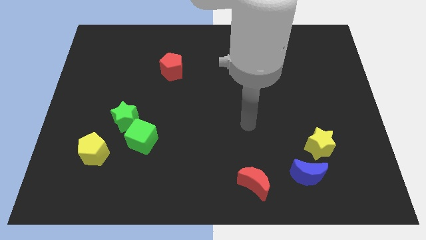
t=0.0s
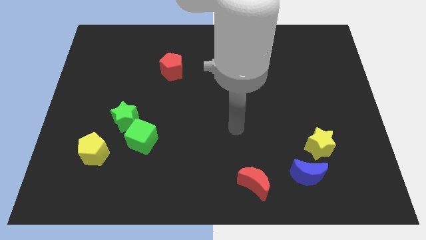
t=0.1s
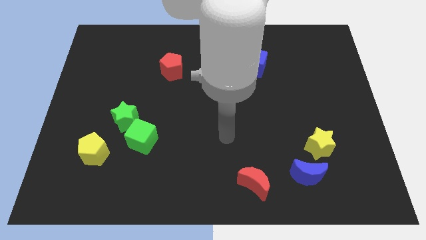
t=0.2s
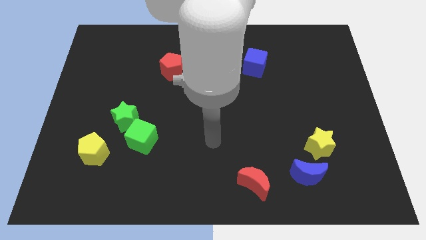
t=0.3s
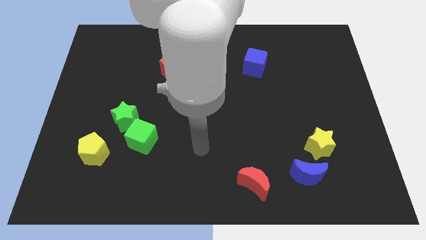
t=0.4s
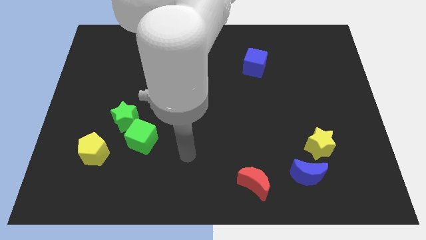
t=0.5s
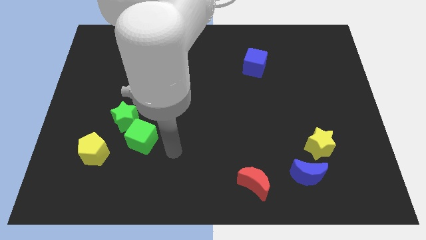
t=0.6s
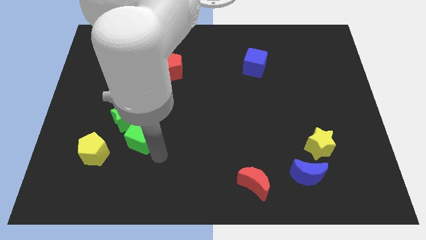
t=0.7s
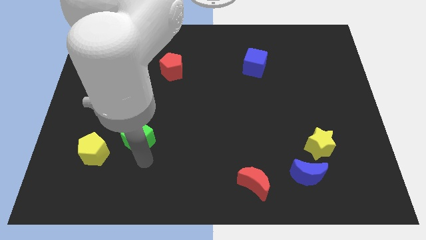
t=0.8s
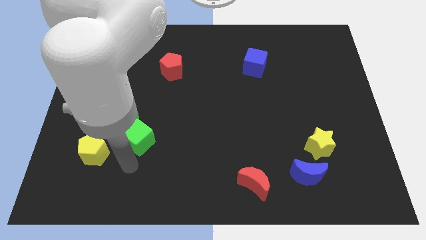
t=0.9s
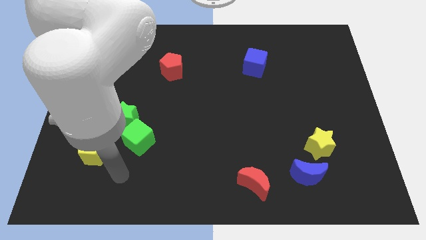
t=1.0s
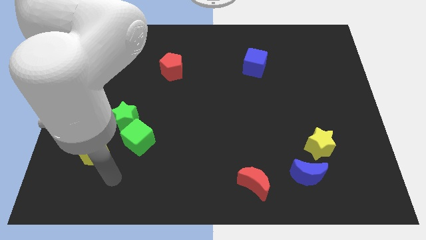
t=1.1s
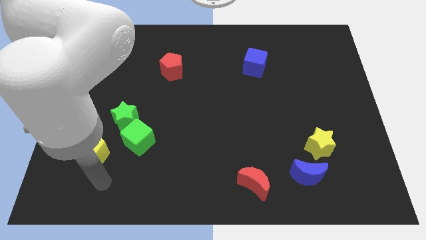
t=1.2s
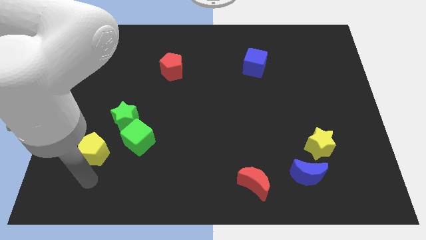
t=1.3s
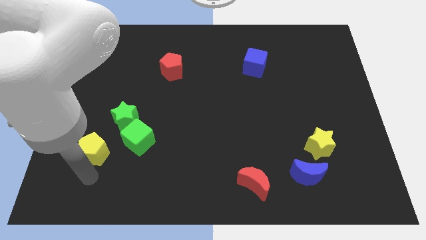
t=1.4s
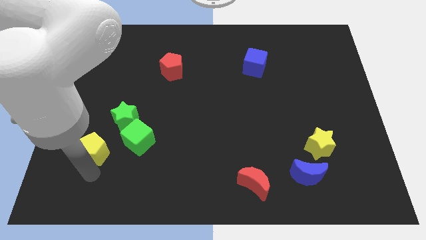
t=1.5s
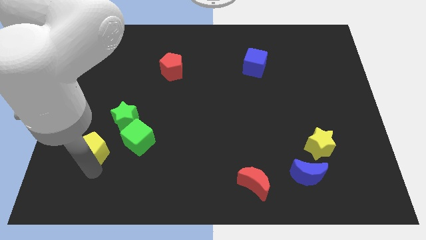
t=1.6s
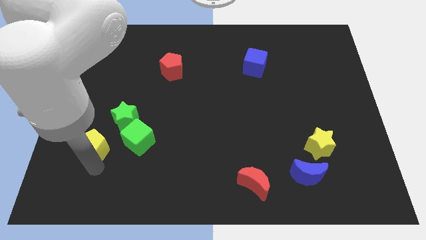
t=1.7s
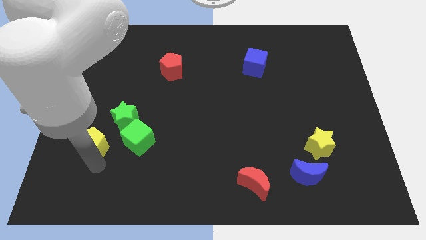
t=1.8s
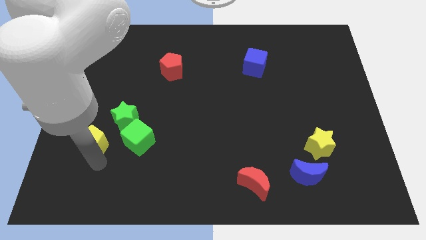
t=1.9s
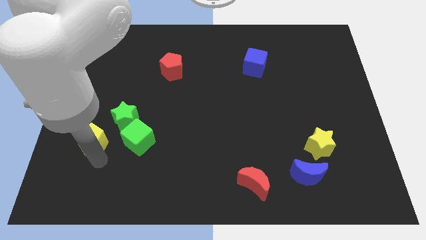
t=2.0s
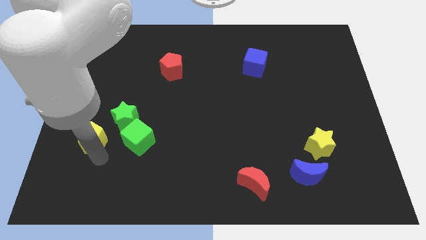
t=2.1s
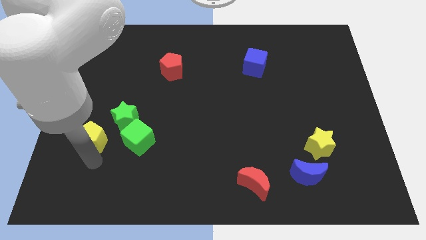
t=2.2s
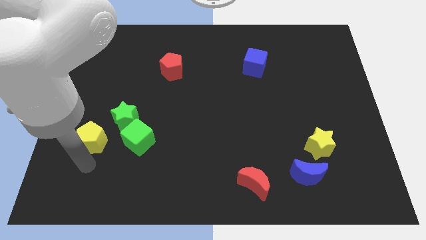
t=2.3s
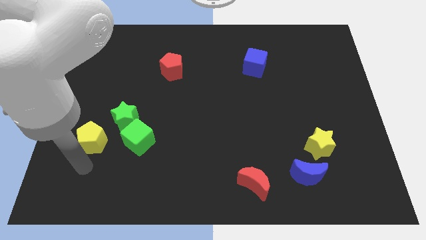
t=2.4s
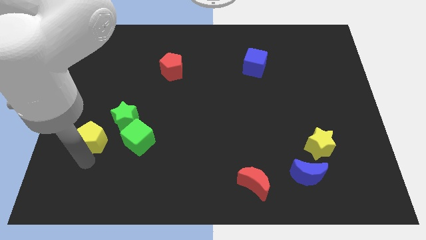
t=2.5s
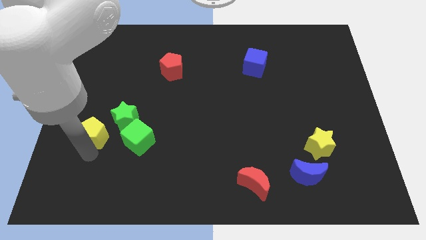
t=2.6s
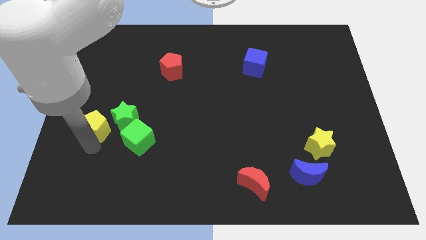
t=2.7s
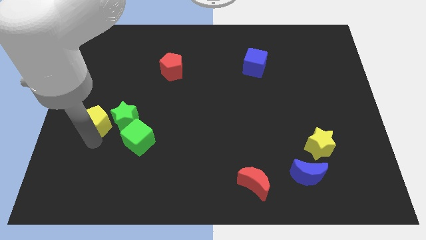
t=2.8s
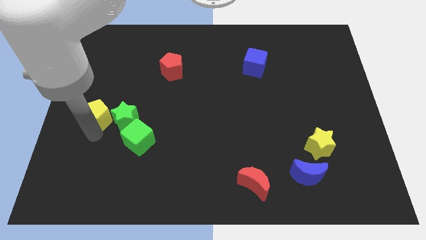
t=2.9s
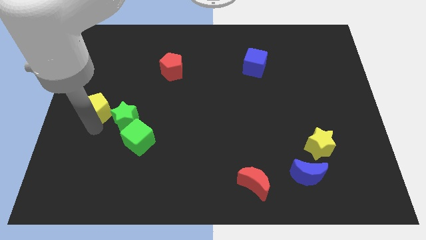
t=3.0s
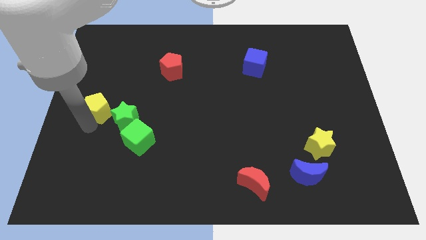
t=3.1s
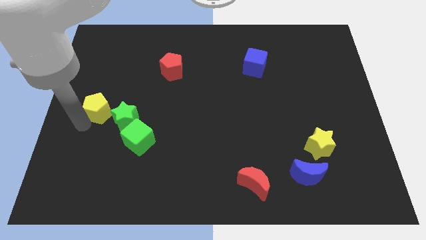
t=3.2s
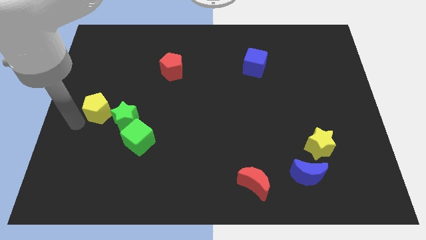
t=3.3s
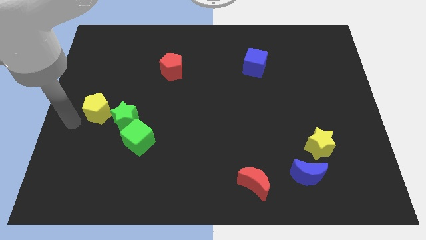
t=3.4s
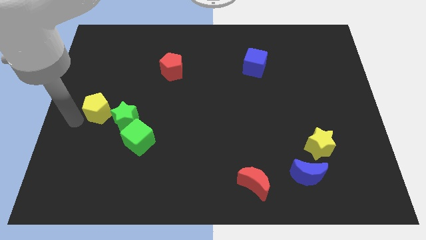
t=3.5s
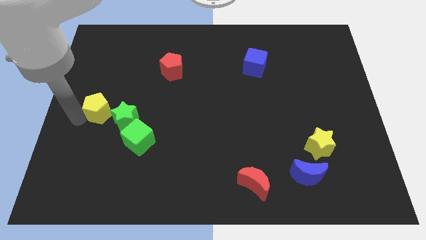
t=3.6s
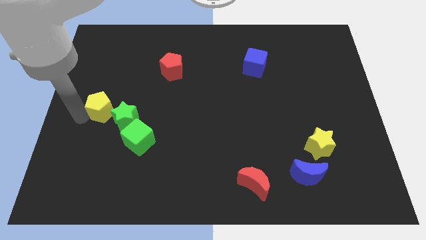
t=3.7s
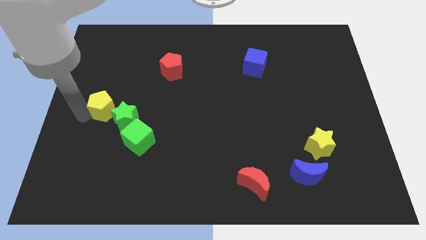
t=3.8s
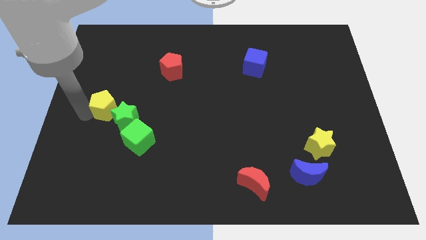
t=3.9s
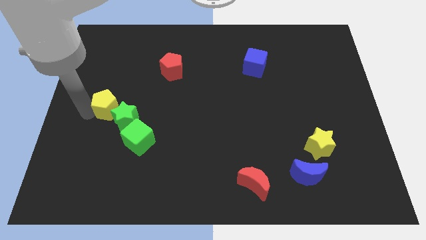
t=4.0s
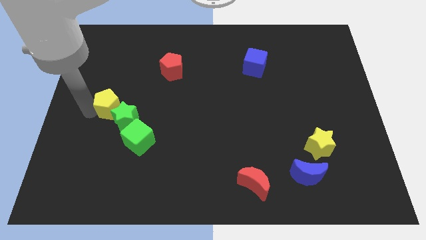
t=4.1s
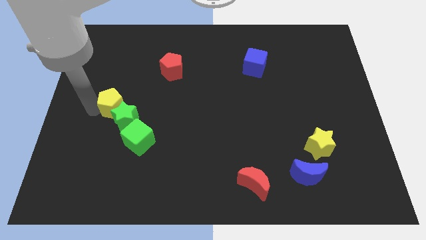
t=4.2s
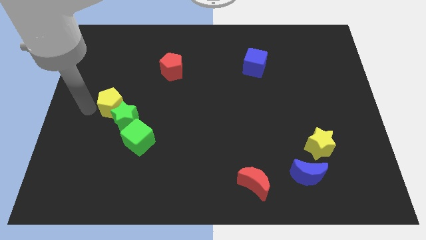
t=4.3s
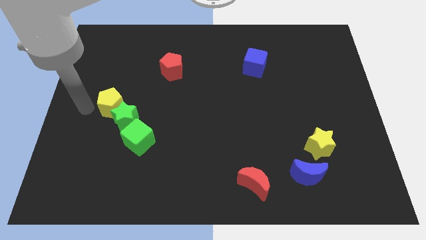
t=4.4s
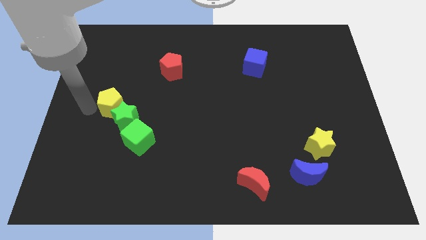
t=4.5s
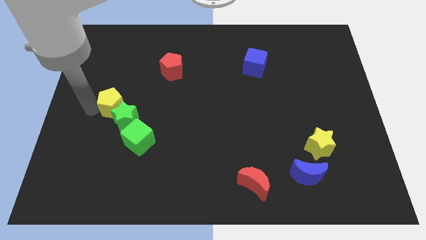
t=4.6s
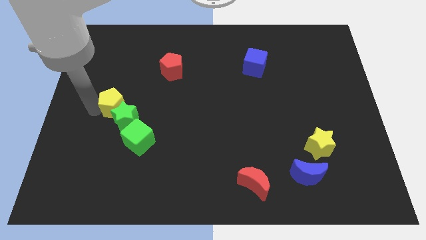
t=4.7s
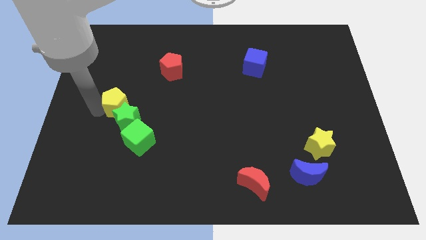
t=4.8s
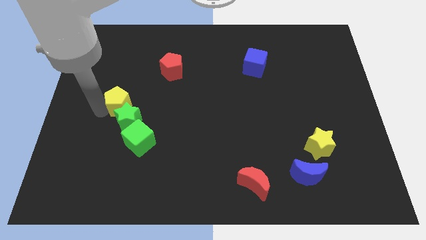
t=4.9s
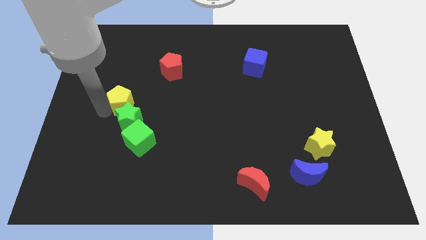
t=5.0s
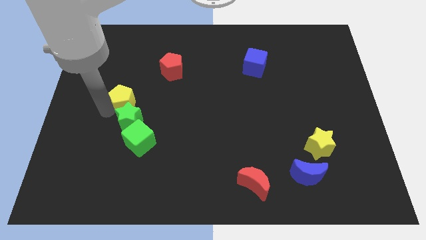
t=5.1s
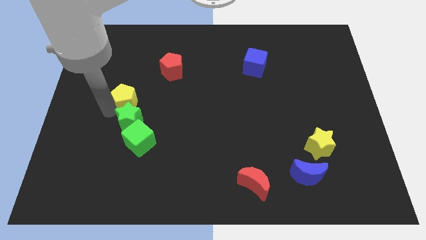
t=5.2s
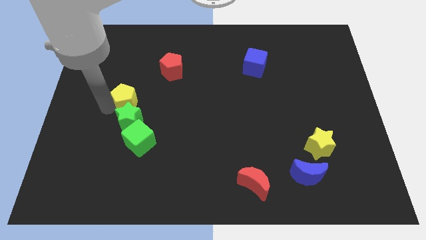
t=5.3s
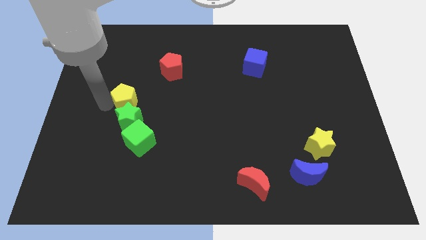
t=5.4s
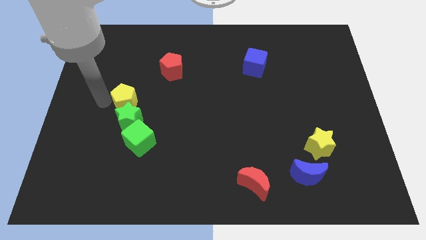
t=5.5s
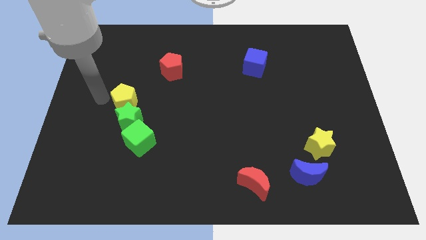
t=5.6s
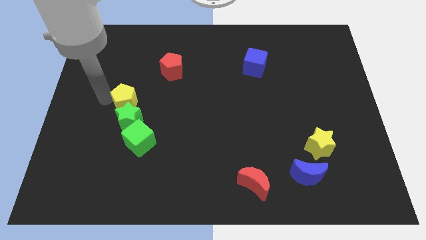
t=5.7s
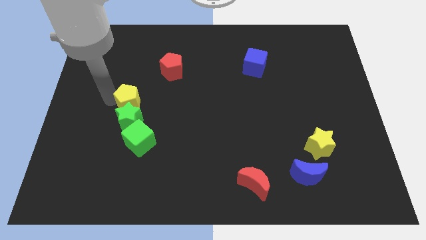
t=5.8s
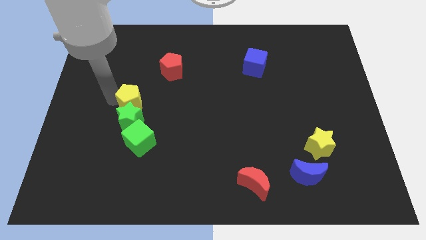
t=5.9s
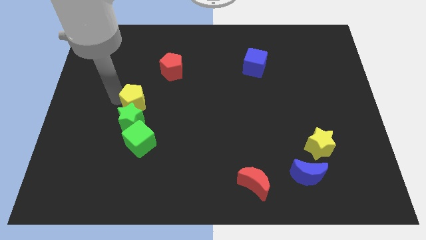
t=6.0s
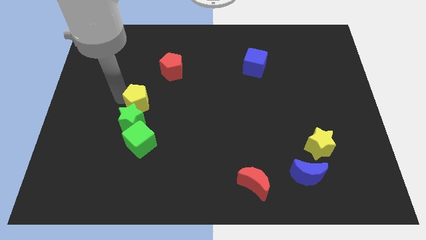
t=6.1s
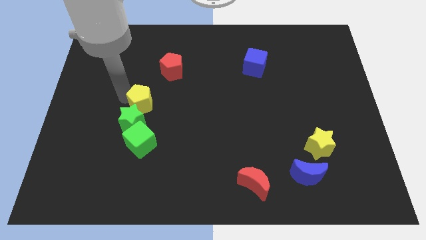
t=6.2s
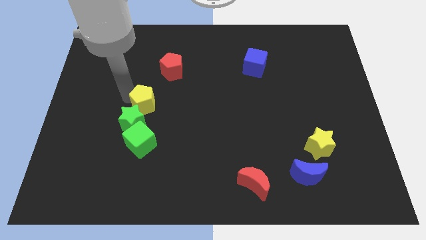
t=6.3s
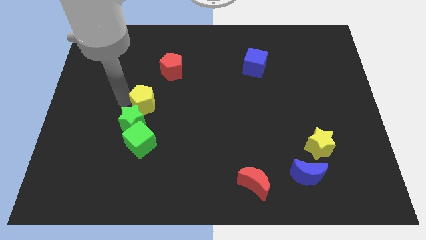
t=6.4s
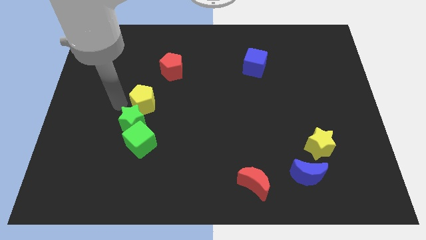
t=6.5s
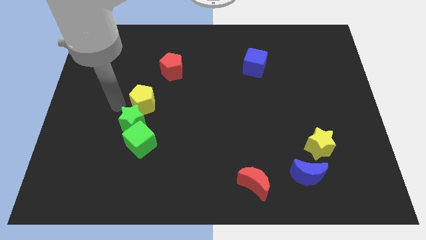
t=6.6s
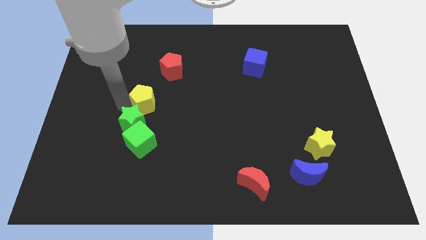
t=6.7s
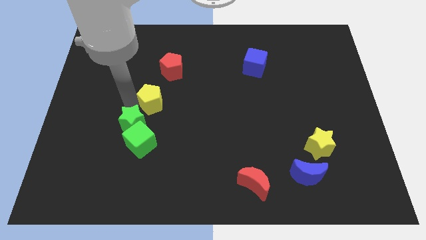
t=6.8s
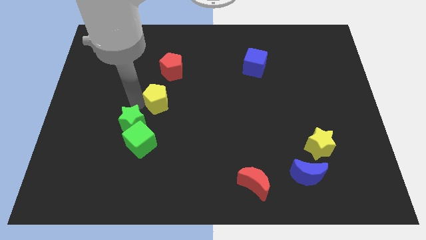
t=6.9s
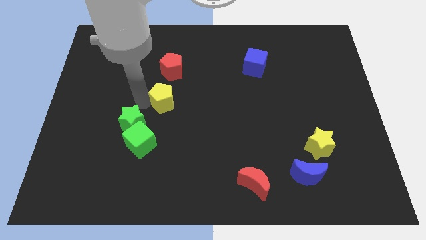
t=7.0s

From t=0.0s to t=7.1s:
move the yellow pentagon up and right diagonally

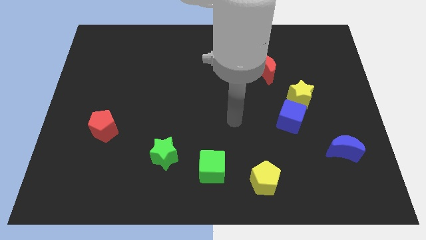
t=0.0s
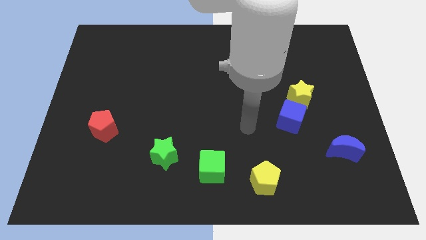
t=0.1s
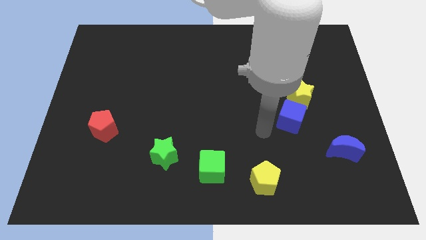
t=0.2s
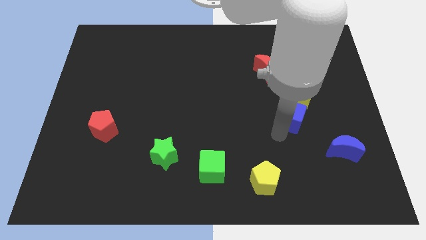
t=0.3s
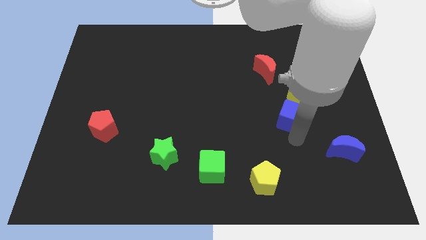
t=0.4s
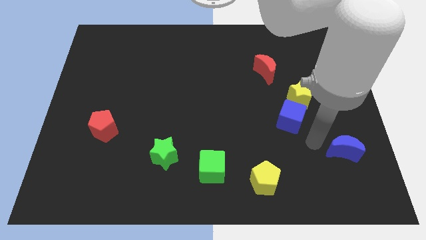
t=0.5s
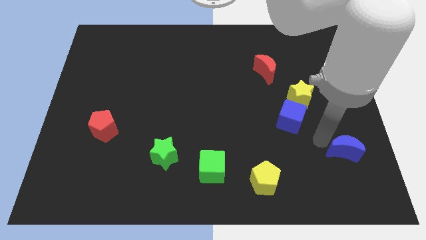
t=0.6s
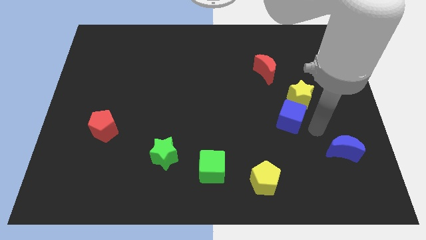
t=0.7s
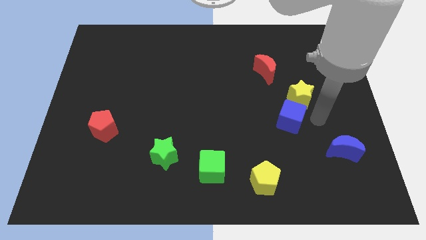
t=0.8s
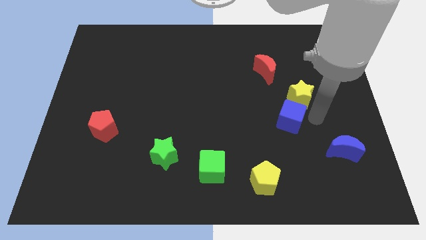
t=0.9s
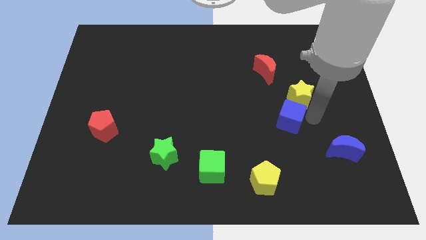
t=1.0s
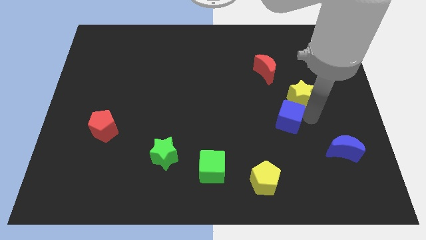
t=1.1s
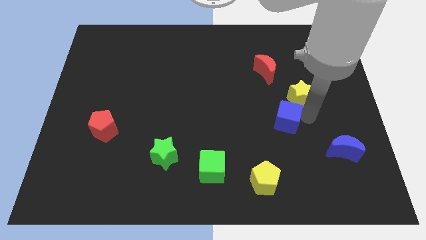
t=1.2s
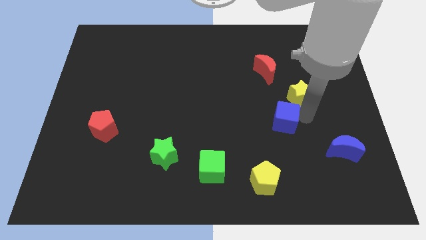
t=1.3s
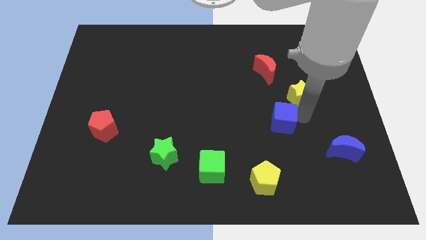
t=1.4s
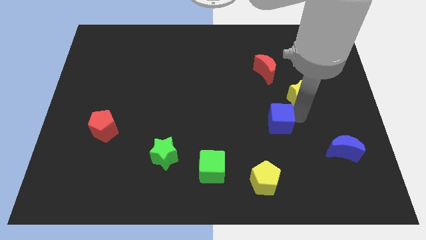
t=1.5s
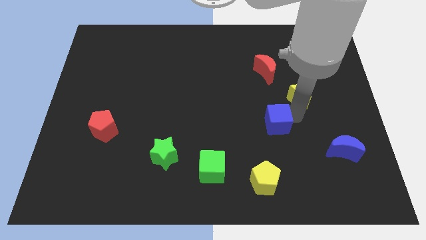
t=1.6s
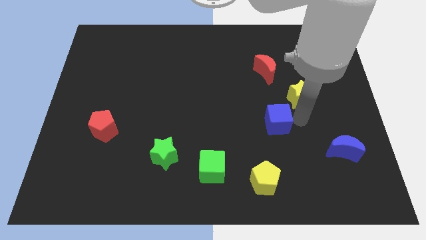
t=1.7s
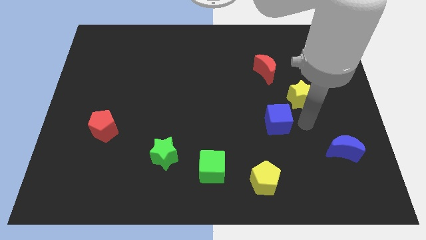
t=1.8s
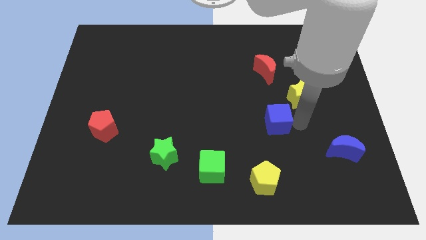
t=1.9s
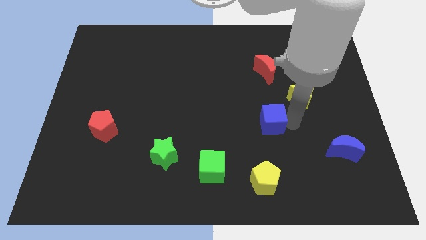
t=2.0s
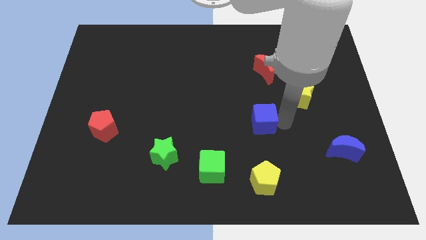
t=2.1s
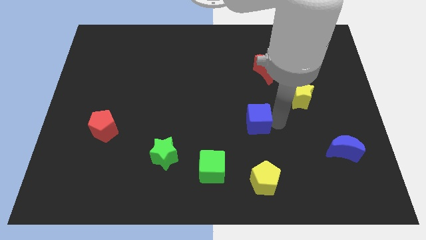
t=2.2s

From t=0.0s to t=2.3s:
push the blue cube left a bit
